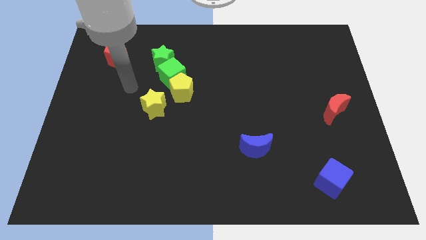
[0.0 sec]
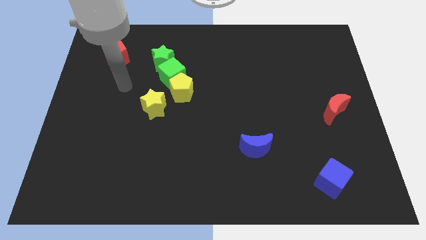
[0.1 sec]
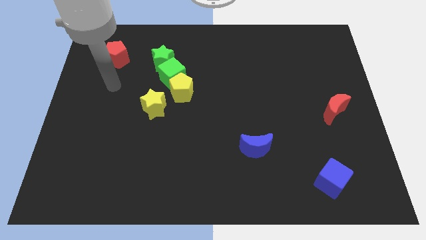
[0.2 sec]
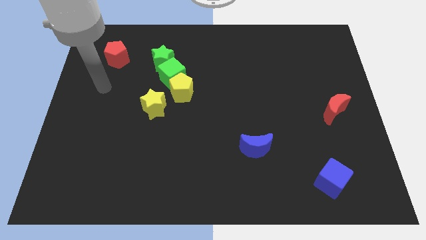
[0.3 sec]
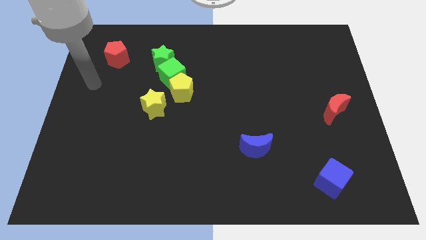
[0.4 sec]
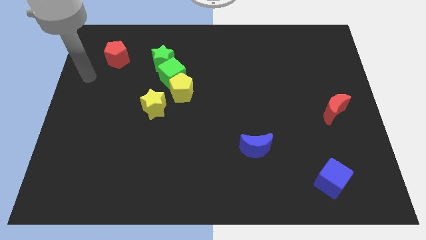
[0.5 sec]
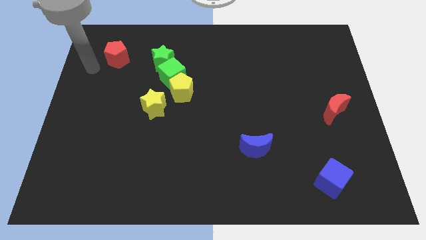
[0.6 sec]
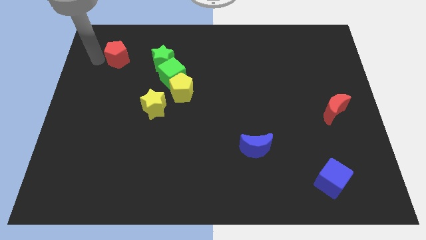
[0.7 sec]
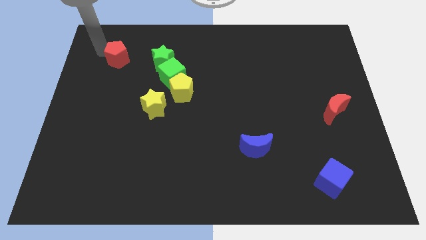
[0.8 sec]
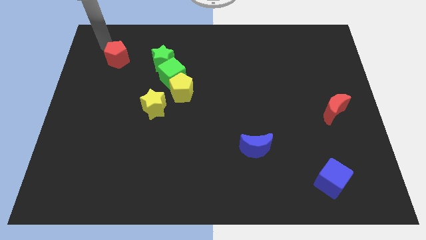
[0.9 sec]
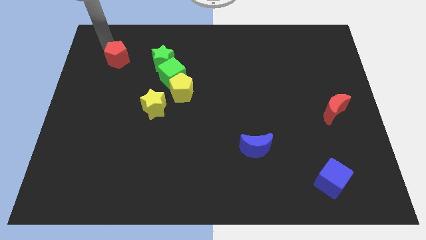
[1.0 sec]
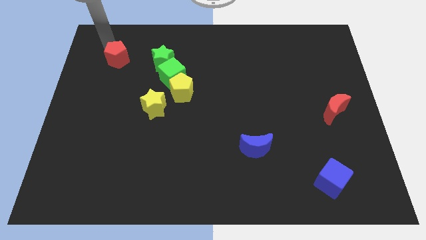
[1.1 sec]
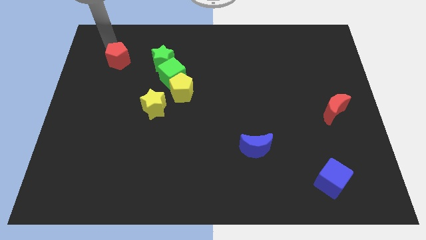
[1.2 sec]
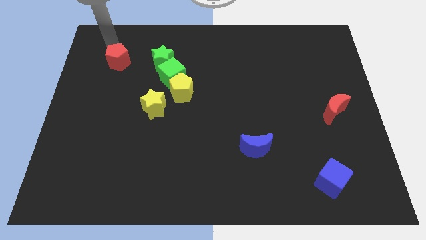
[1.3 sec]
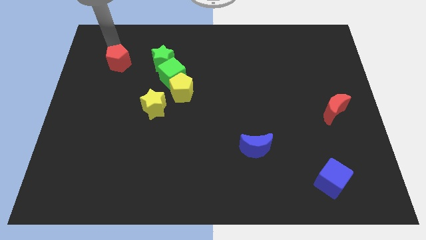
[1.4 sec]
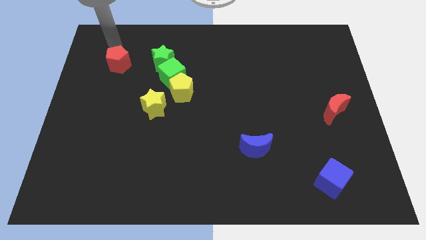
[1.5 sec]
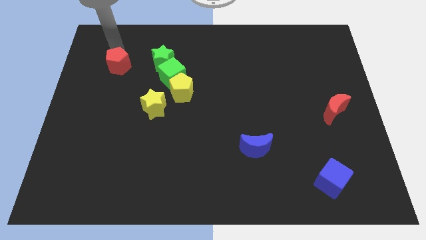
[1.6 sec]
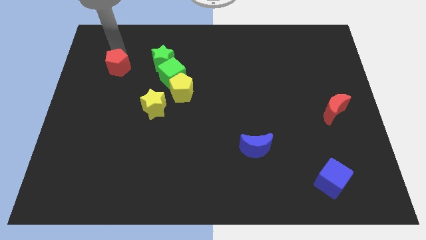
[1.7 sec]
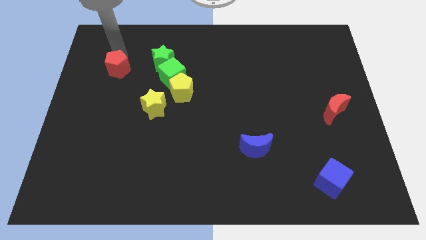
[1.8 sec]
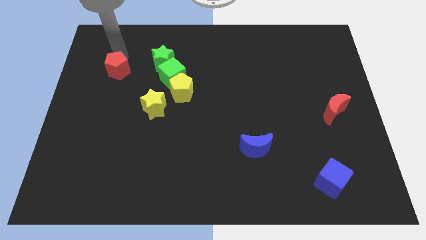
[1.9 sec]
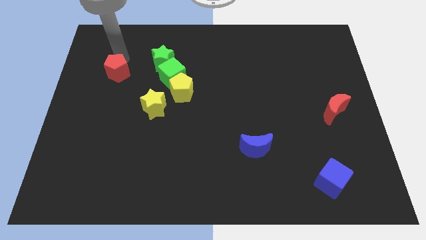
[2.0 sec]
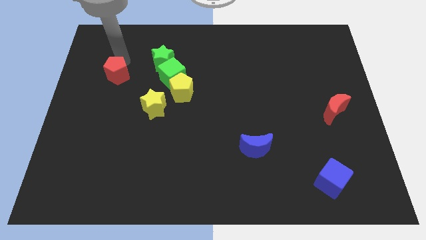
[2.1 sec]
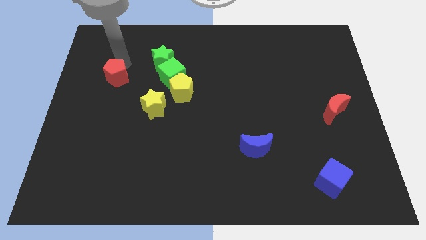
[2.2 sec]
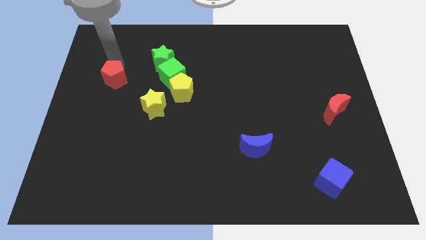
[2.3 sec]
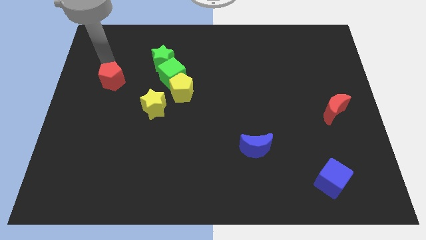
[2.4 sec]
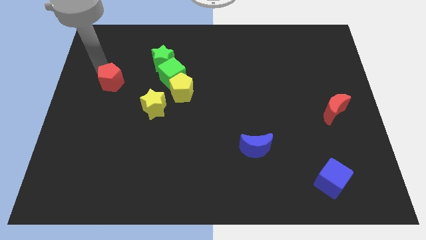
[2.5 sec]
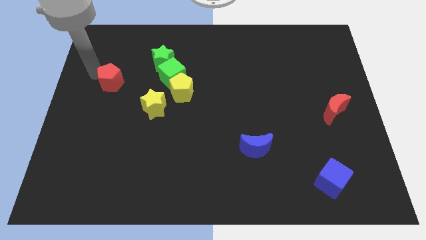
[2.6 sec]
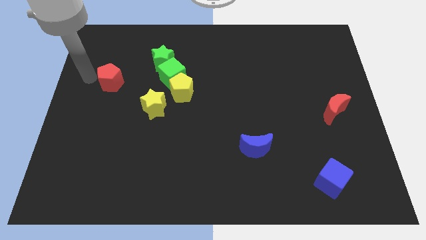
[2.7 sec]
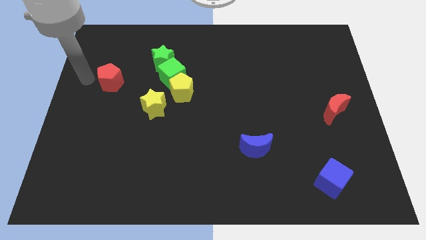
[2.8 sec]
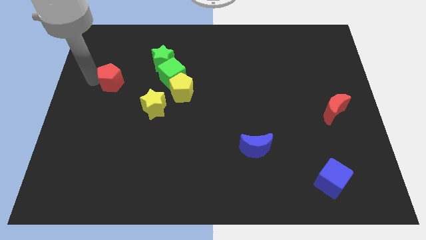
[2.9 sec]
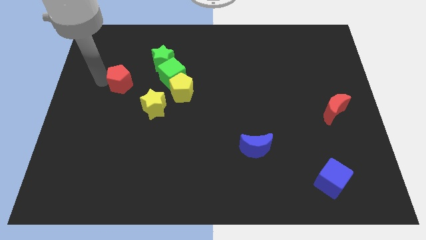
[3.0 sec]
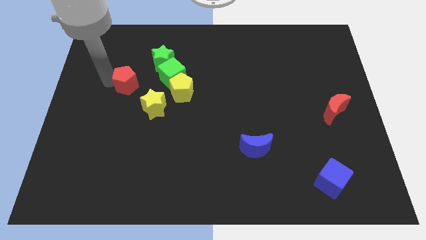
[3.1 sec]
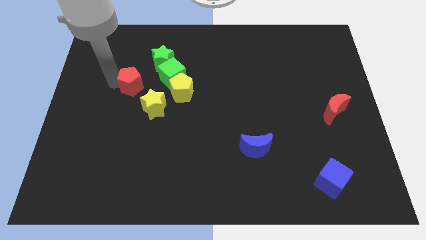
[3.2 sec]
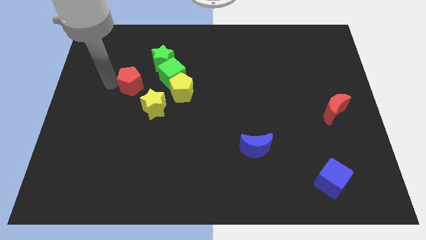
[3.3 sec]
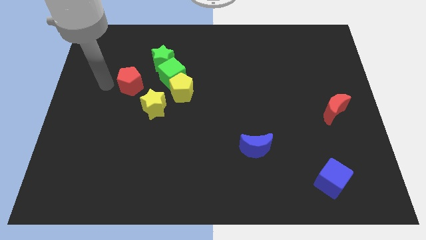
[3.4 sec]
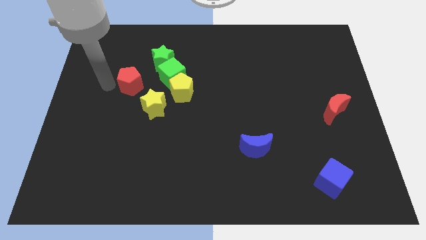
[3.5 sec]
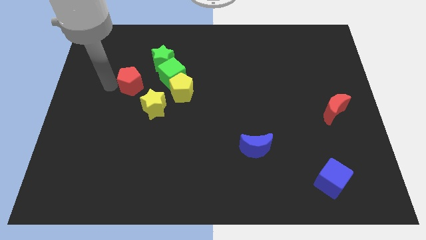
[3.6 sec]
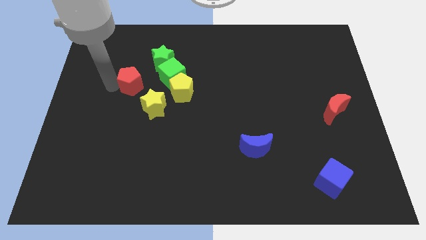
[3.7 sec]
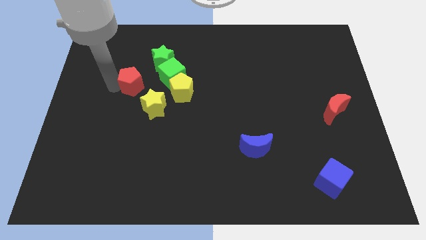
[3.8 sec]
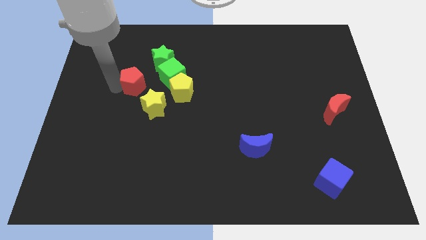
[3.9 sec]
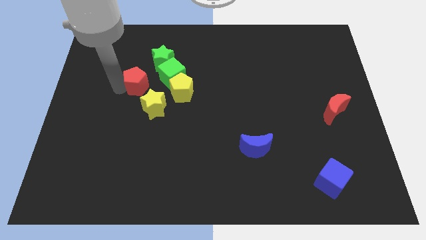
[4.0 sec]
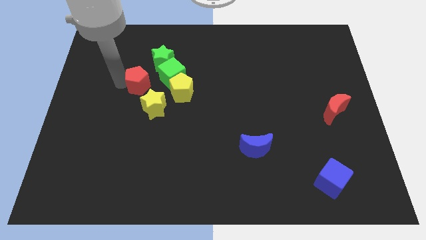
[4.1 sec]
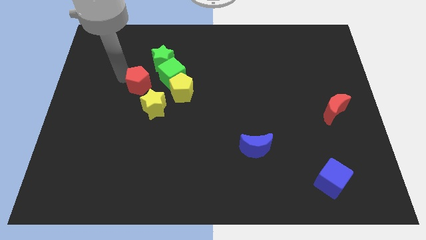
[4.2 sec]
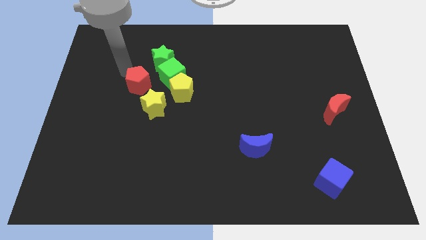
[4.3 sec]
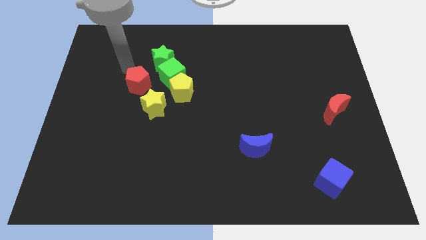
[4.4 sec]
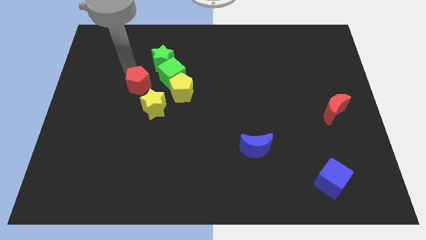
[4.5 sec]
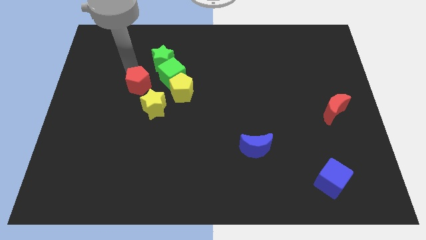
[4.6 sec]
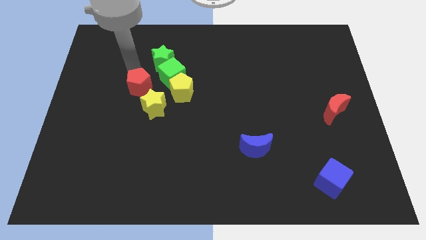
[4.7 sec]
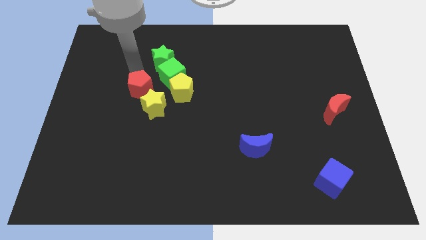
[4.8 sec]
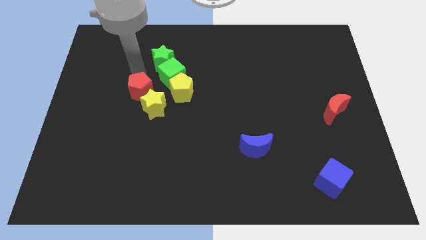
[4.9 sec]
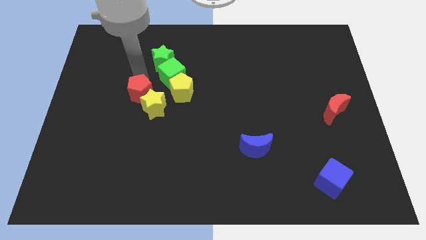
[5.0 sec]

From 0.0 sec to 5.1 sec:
slide the red pentagon close to the yellow star

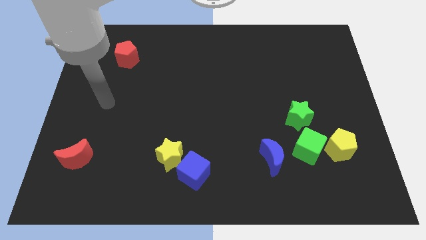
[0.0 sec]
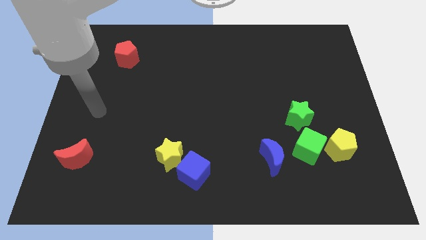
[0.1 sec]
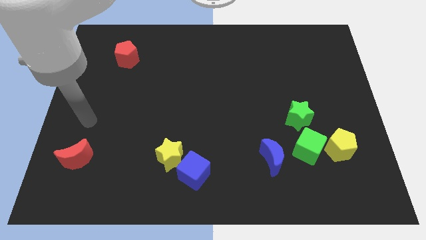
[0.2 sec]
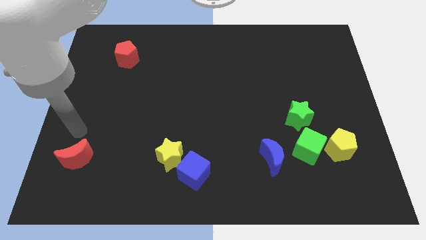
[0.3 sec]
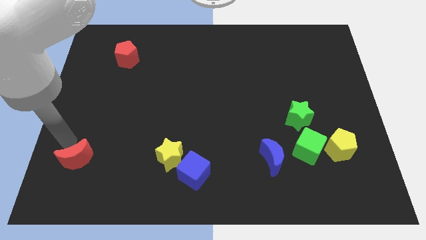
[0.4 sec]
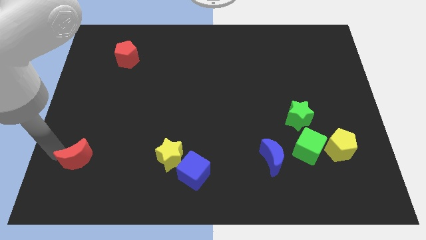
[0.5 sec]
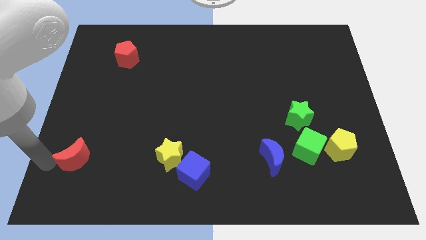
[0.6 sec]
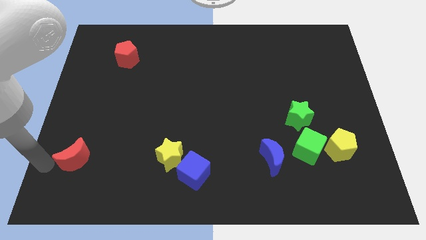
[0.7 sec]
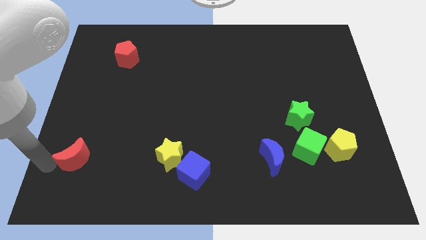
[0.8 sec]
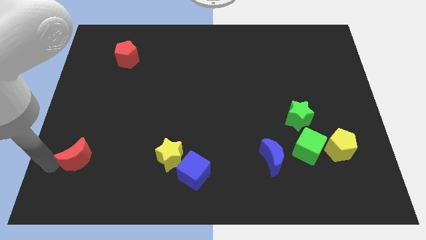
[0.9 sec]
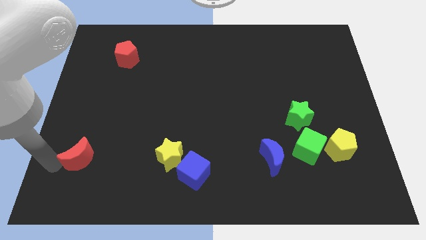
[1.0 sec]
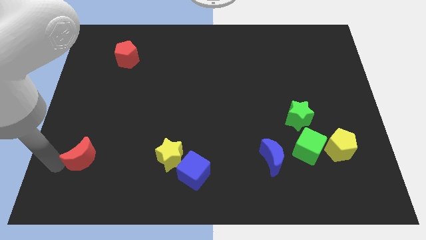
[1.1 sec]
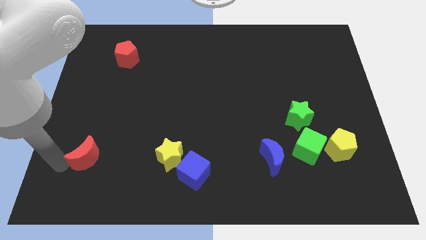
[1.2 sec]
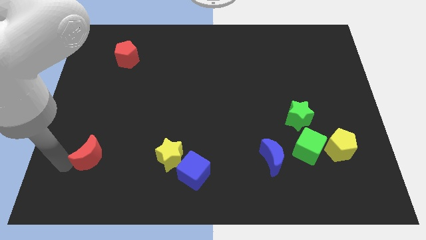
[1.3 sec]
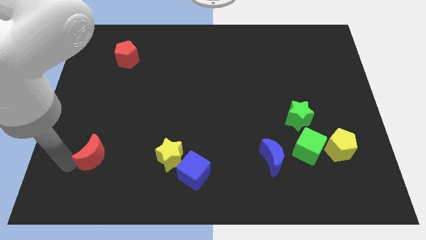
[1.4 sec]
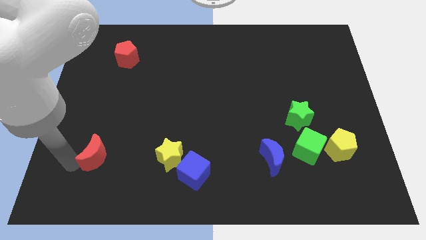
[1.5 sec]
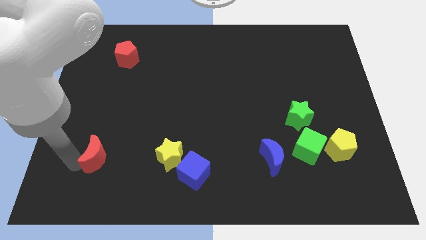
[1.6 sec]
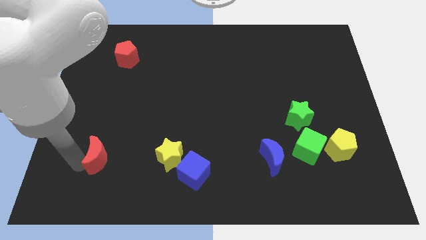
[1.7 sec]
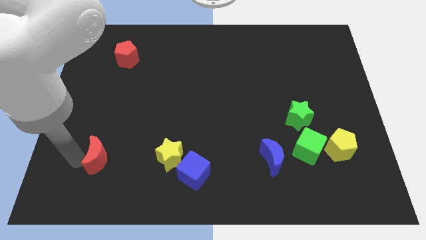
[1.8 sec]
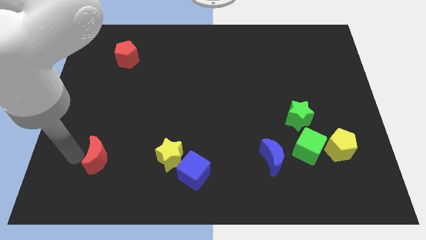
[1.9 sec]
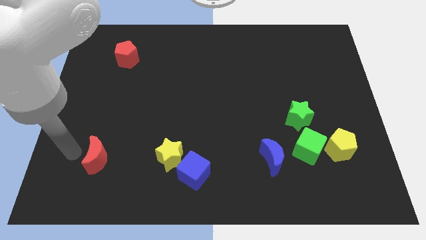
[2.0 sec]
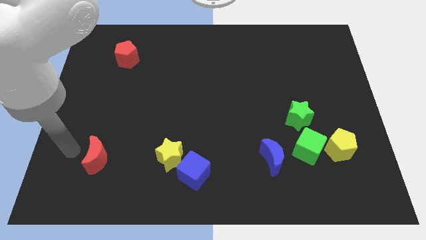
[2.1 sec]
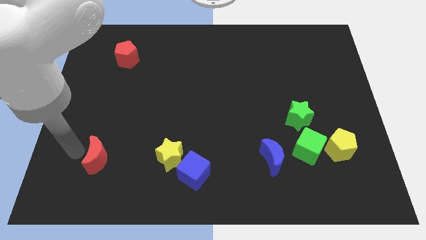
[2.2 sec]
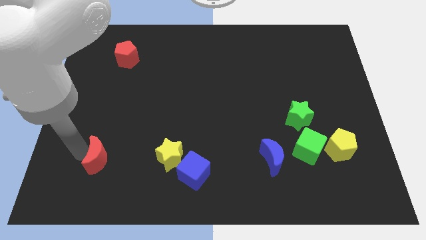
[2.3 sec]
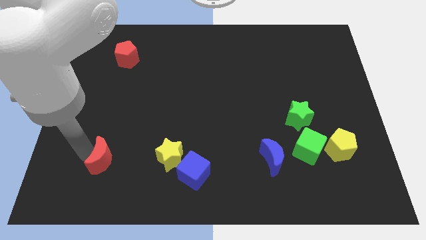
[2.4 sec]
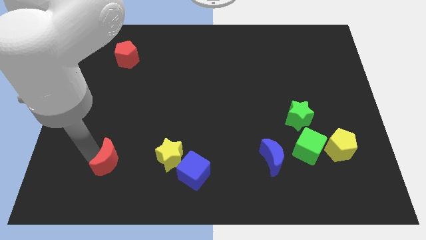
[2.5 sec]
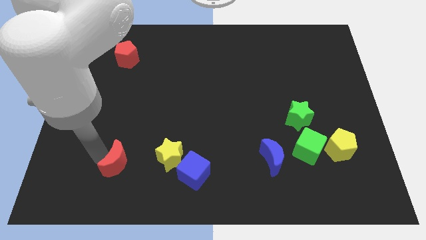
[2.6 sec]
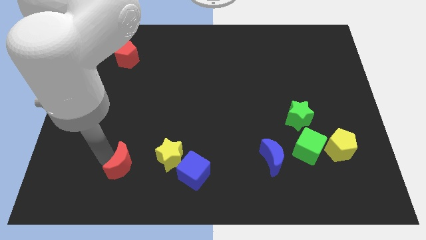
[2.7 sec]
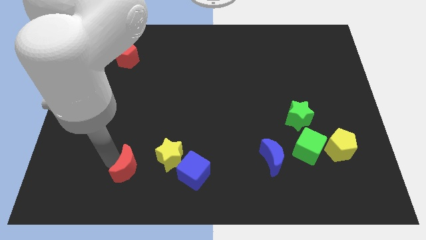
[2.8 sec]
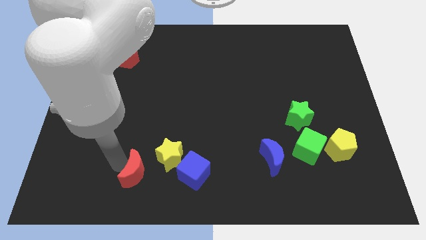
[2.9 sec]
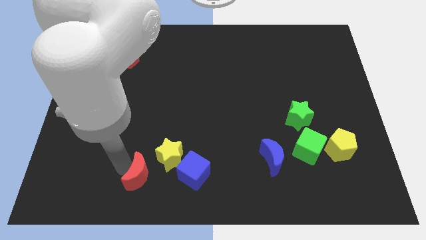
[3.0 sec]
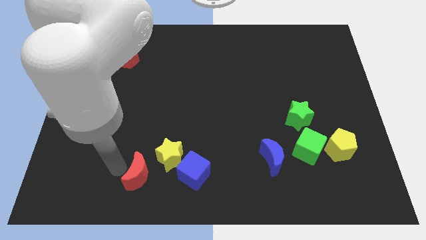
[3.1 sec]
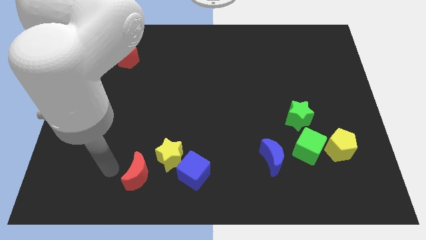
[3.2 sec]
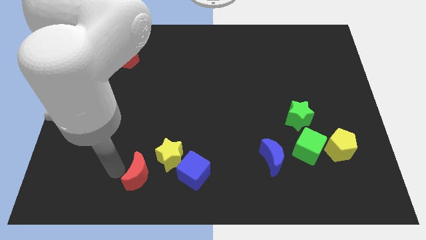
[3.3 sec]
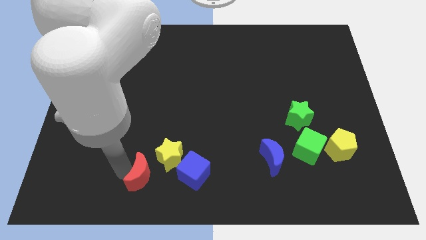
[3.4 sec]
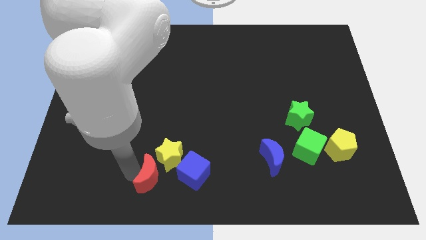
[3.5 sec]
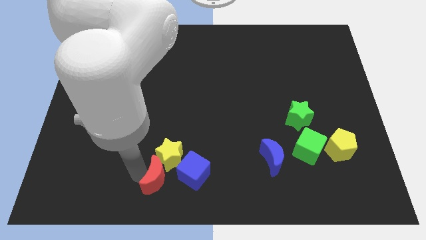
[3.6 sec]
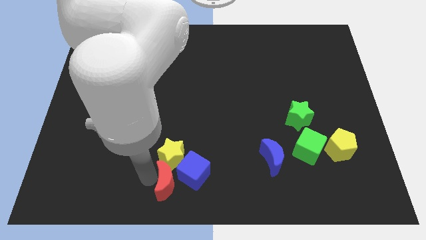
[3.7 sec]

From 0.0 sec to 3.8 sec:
move the red moon close to the blue cube
